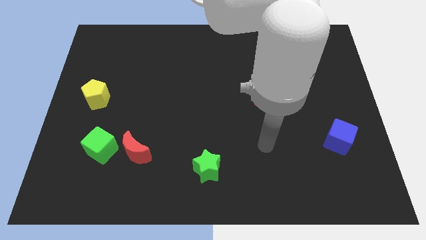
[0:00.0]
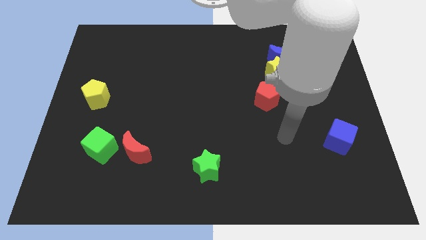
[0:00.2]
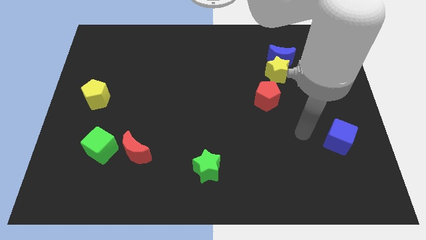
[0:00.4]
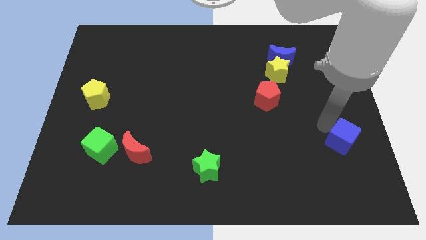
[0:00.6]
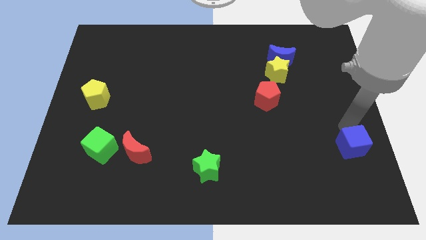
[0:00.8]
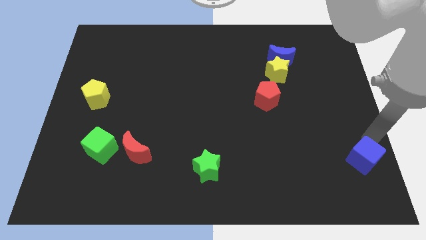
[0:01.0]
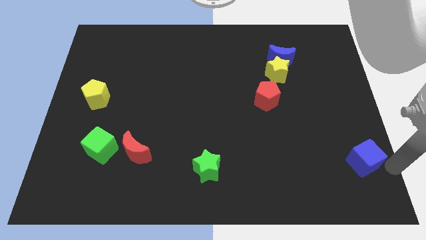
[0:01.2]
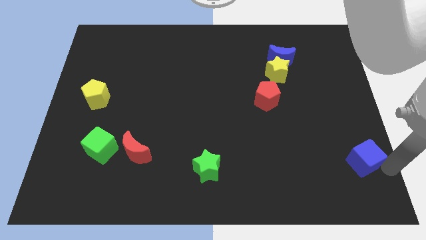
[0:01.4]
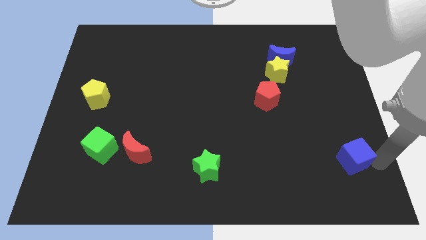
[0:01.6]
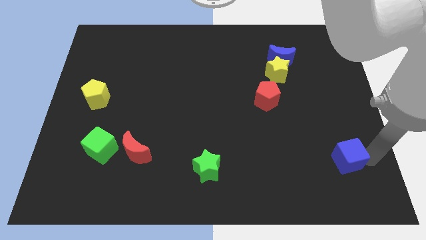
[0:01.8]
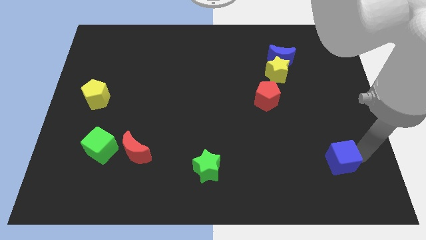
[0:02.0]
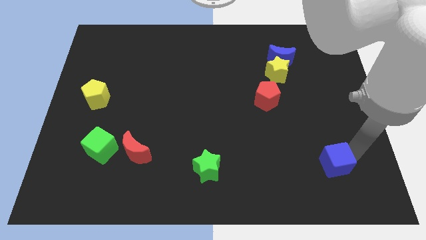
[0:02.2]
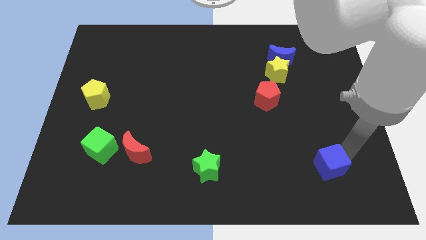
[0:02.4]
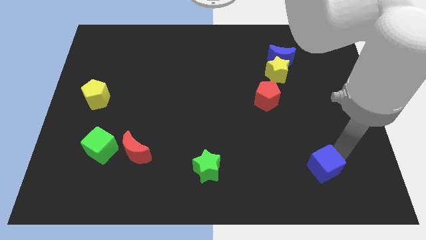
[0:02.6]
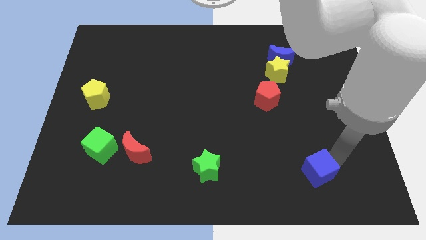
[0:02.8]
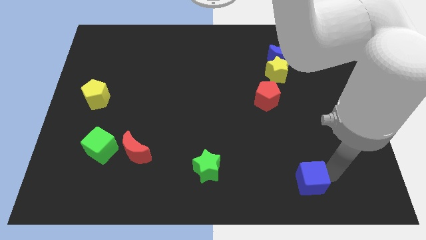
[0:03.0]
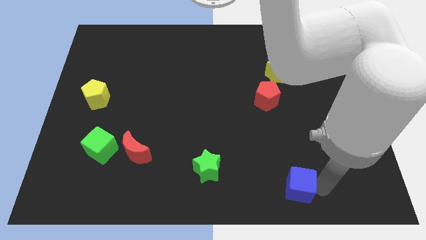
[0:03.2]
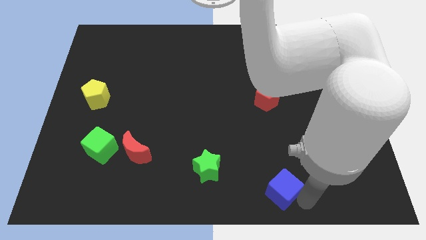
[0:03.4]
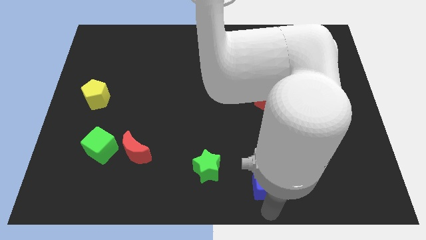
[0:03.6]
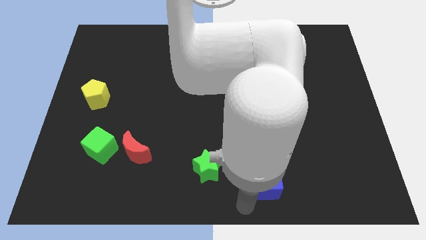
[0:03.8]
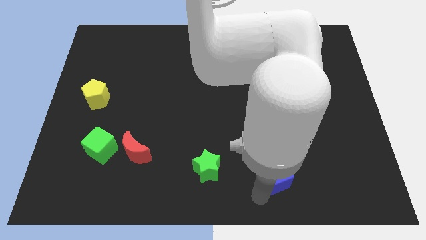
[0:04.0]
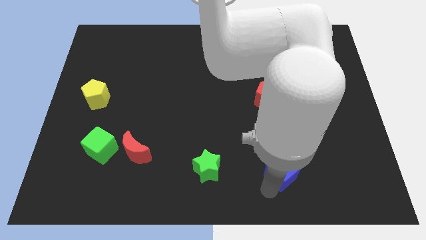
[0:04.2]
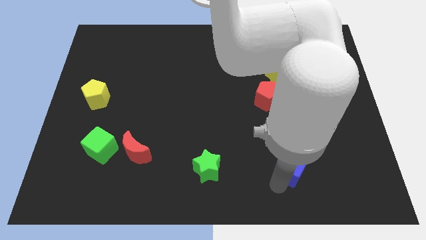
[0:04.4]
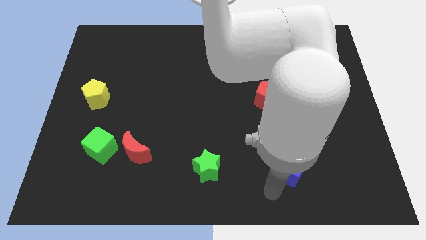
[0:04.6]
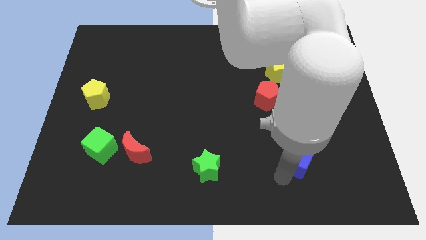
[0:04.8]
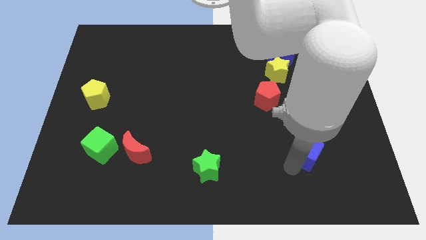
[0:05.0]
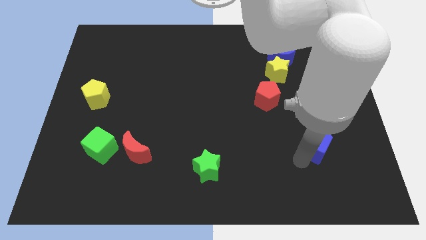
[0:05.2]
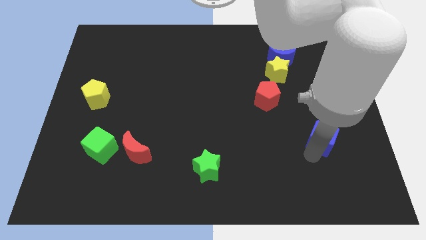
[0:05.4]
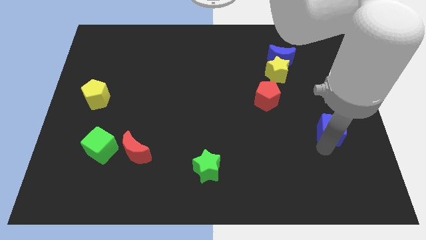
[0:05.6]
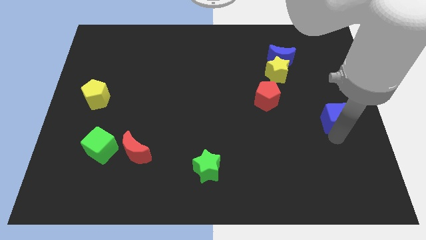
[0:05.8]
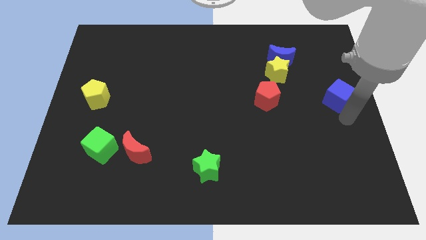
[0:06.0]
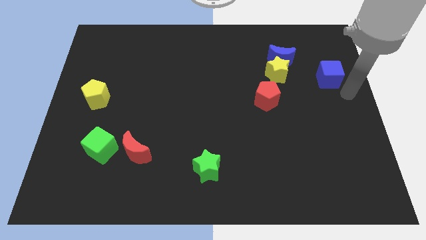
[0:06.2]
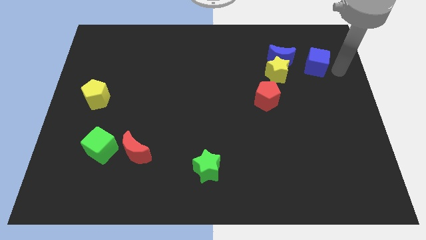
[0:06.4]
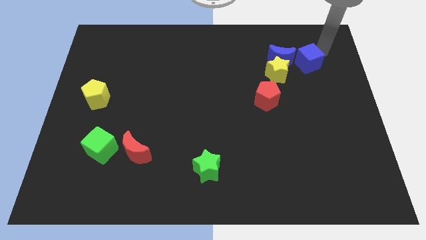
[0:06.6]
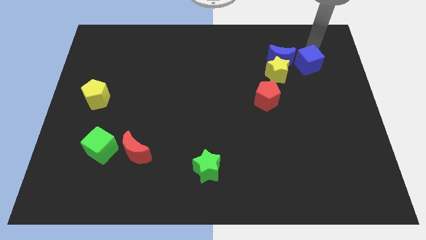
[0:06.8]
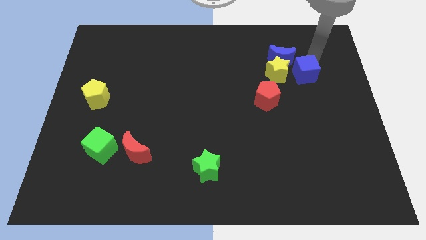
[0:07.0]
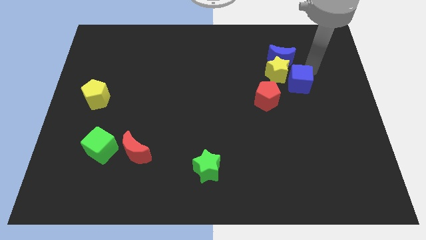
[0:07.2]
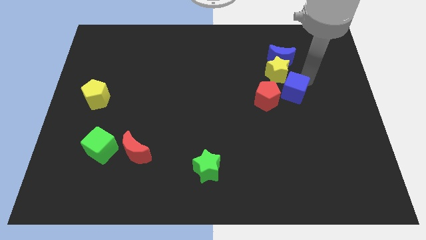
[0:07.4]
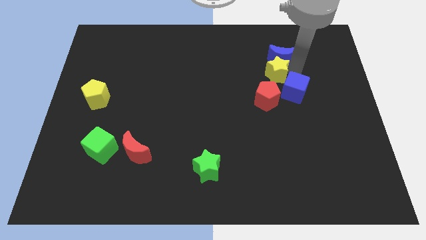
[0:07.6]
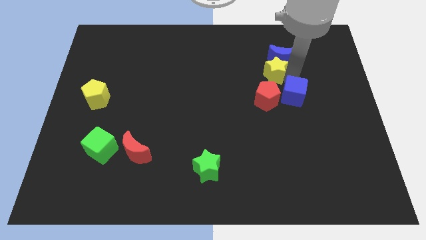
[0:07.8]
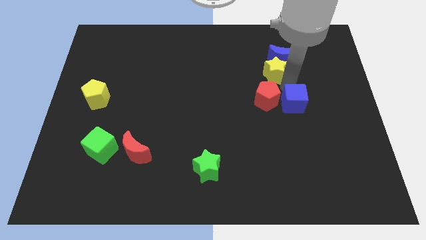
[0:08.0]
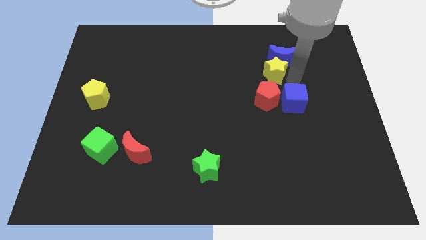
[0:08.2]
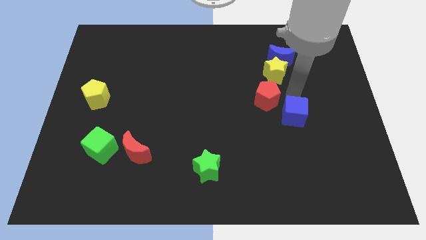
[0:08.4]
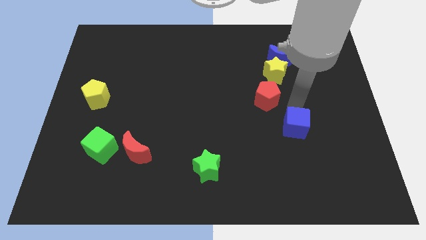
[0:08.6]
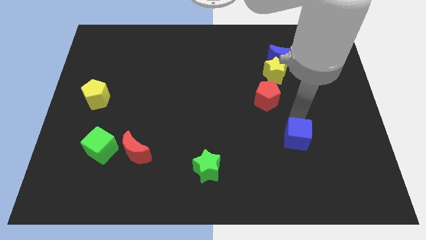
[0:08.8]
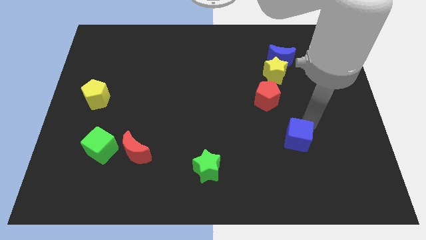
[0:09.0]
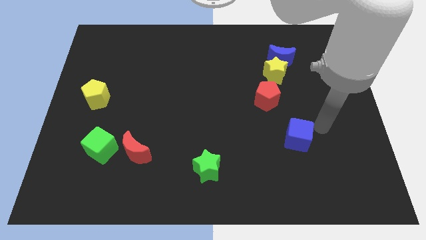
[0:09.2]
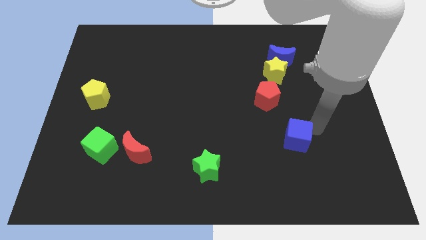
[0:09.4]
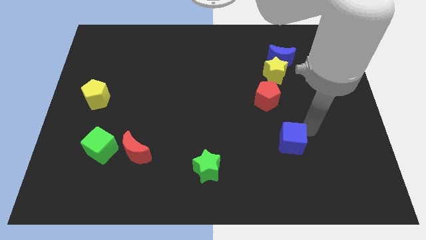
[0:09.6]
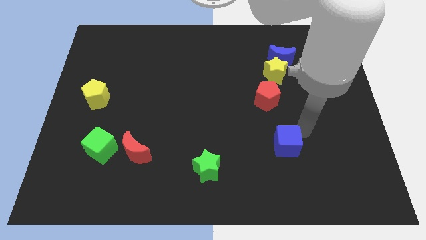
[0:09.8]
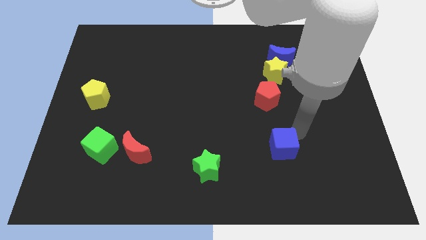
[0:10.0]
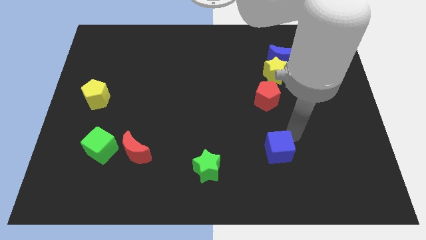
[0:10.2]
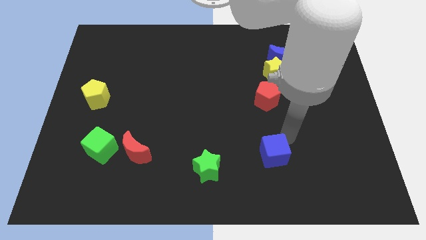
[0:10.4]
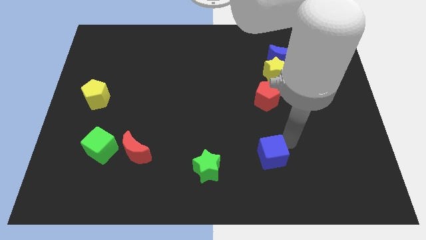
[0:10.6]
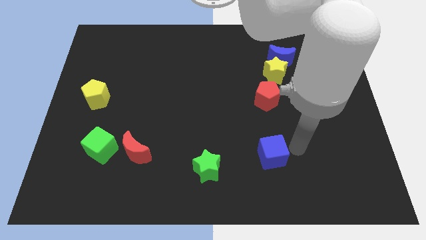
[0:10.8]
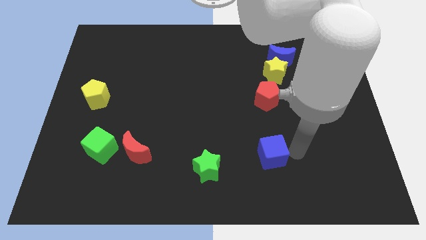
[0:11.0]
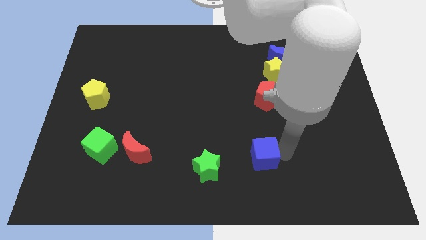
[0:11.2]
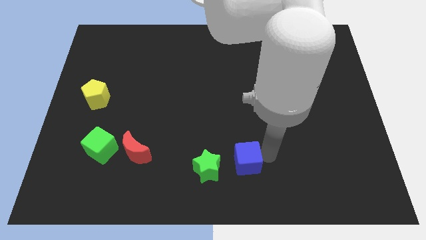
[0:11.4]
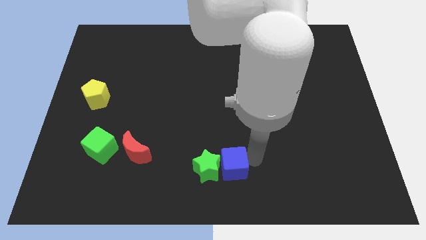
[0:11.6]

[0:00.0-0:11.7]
move the blue cube towards the green star
